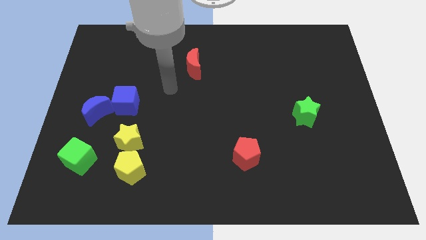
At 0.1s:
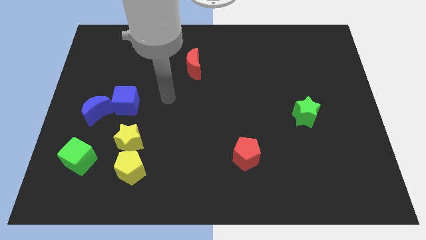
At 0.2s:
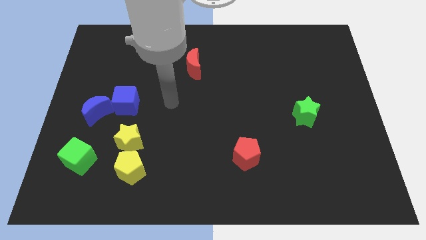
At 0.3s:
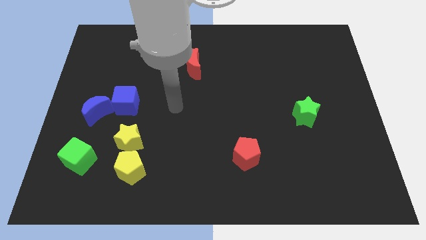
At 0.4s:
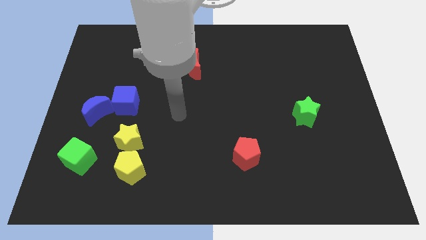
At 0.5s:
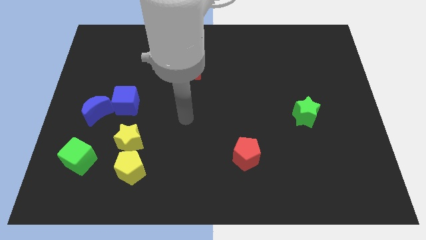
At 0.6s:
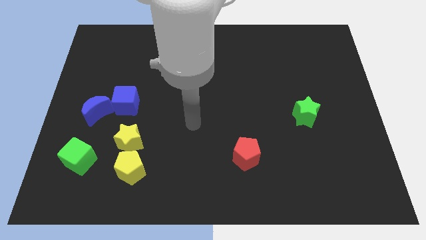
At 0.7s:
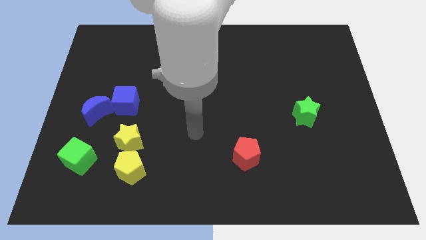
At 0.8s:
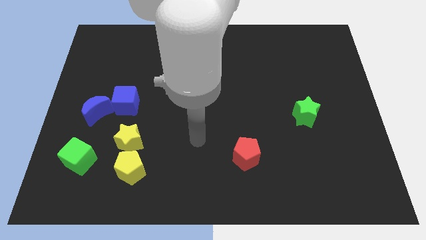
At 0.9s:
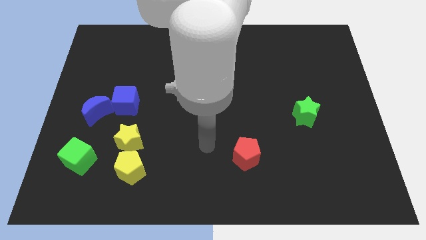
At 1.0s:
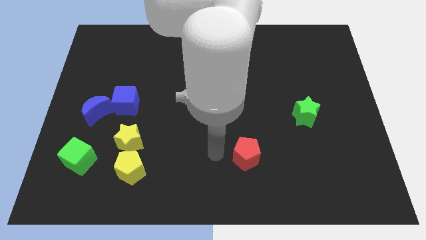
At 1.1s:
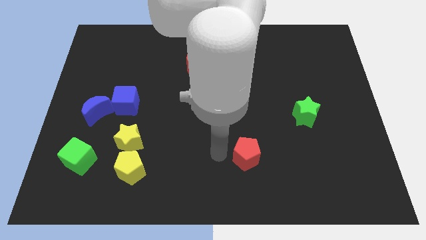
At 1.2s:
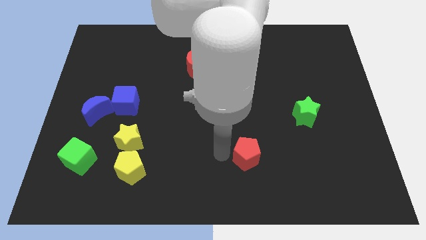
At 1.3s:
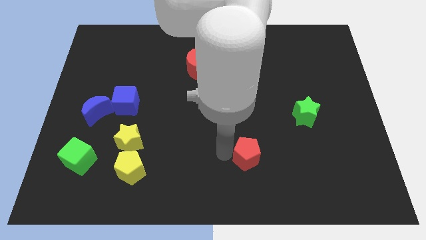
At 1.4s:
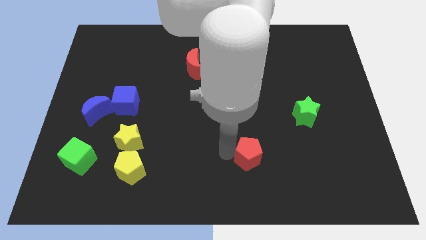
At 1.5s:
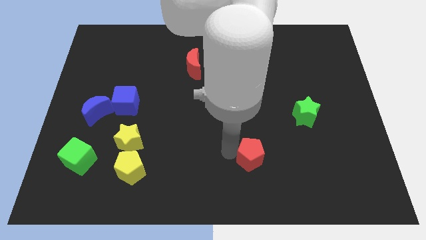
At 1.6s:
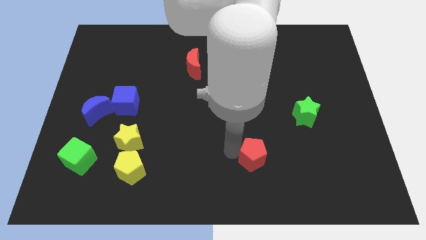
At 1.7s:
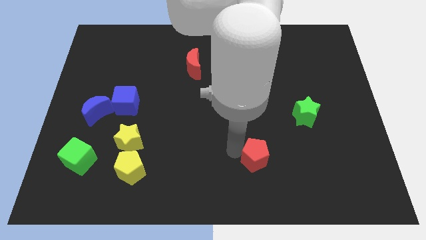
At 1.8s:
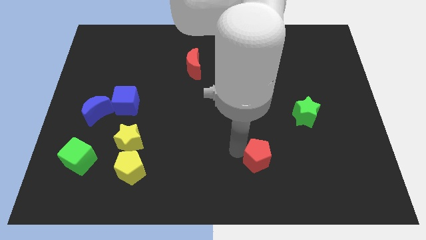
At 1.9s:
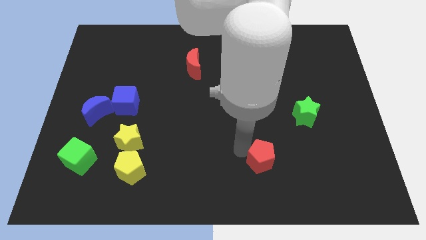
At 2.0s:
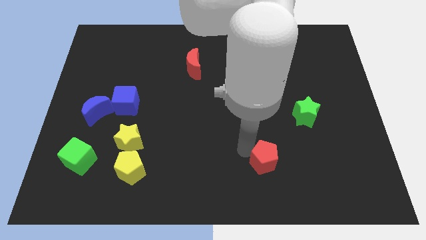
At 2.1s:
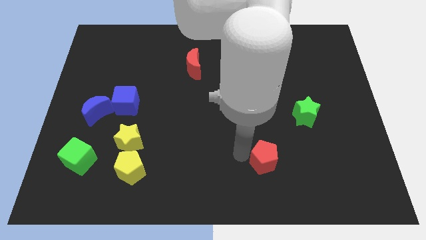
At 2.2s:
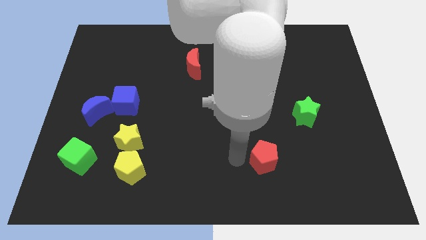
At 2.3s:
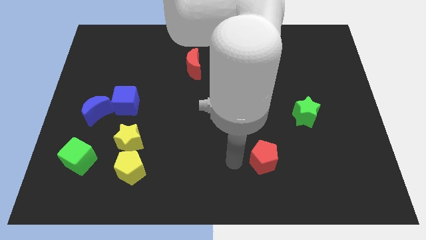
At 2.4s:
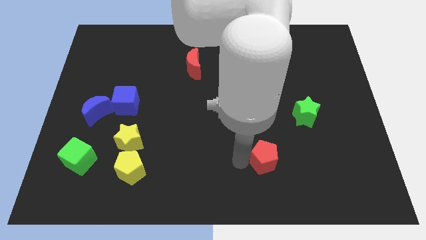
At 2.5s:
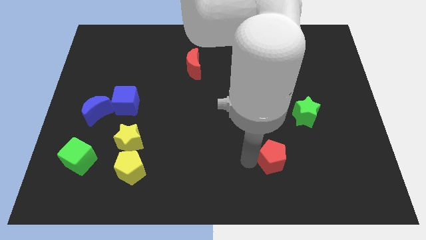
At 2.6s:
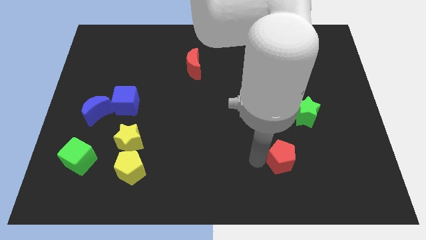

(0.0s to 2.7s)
slide the red pentagon somewhat to the right

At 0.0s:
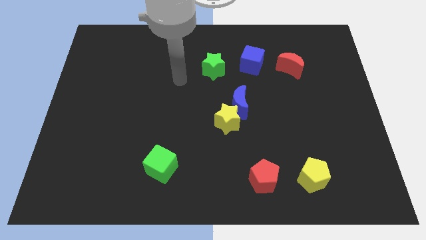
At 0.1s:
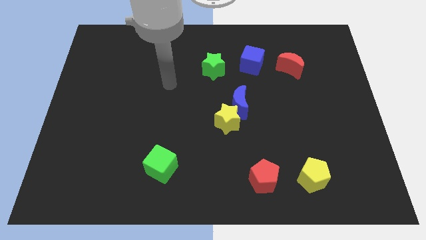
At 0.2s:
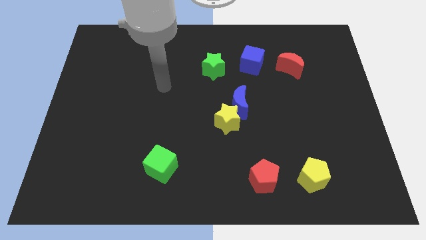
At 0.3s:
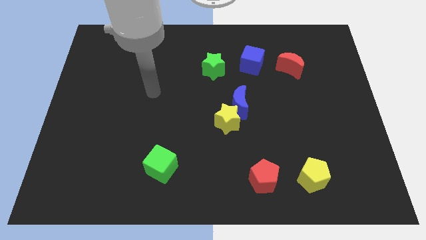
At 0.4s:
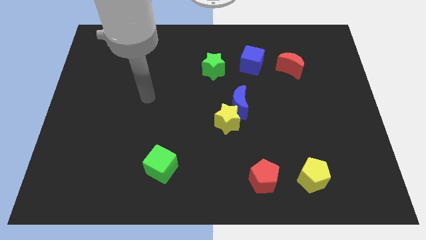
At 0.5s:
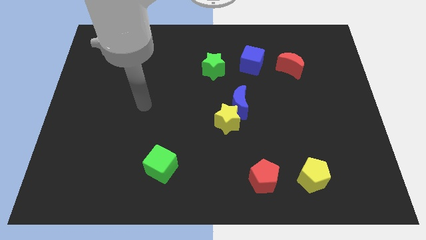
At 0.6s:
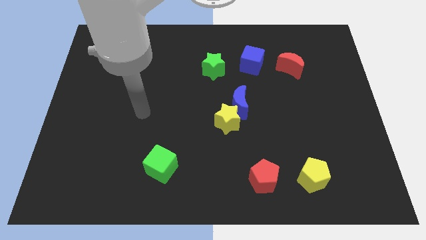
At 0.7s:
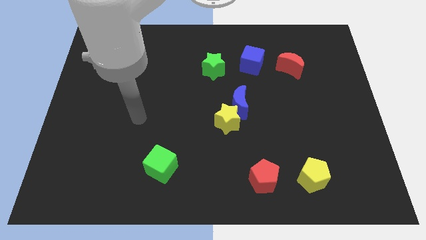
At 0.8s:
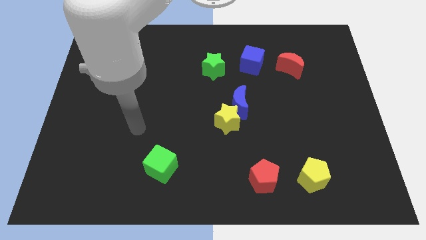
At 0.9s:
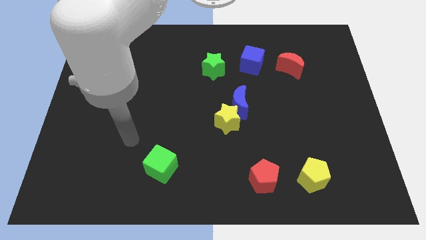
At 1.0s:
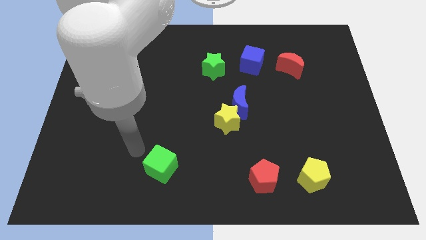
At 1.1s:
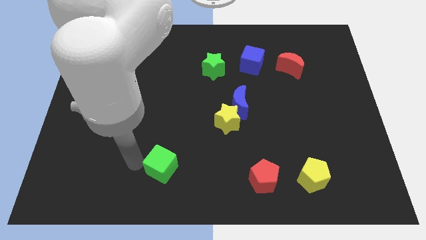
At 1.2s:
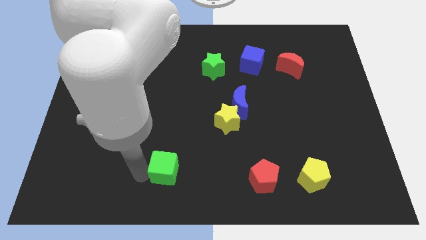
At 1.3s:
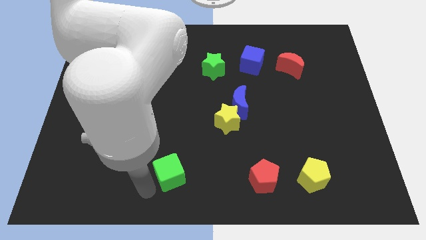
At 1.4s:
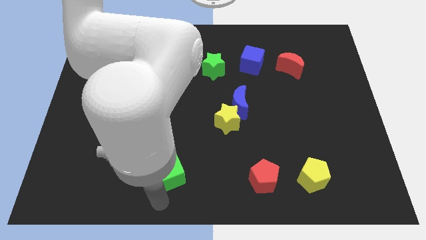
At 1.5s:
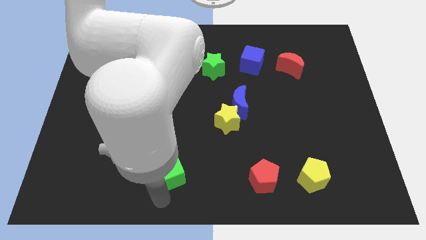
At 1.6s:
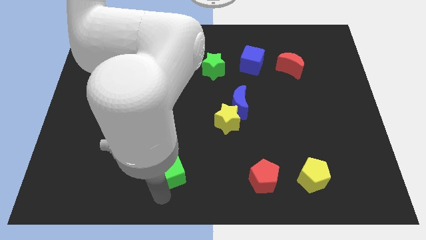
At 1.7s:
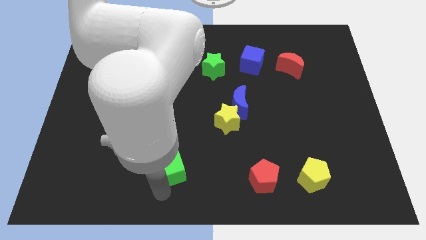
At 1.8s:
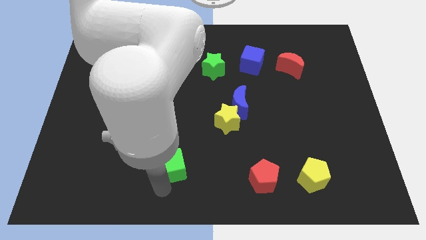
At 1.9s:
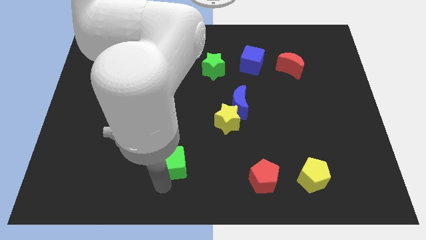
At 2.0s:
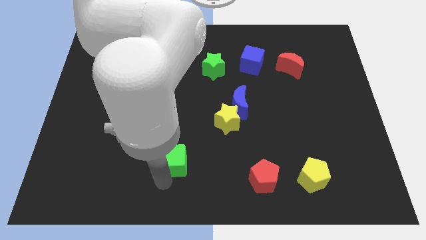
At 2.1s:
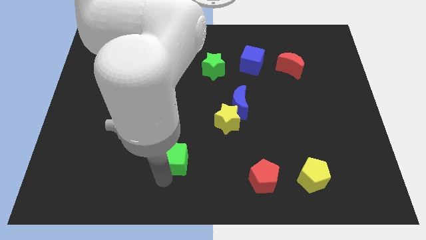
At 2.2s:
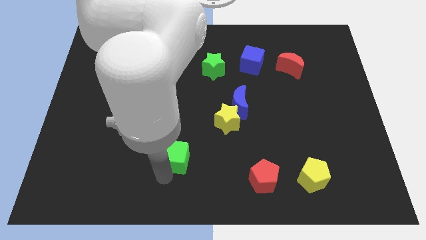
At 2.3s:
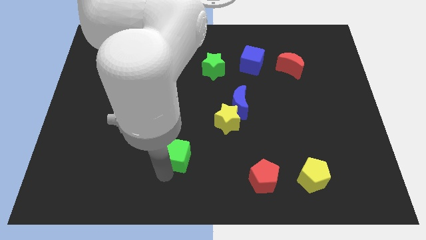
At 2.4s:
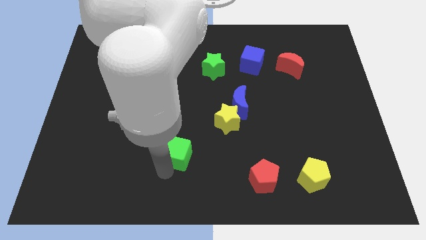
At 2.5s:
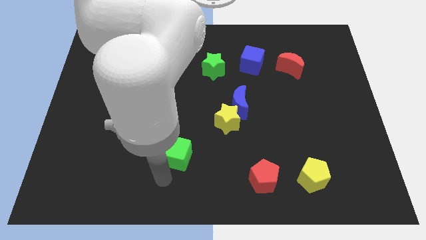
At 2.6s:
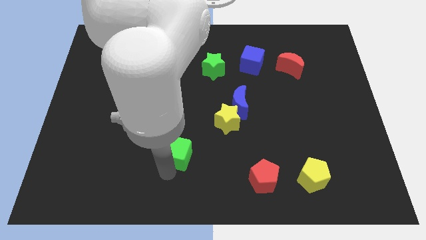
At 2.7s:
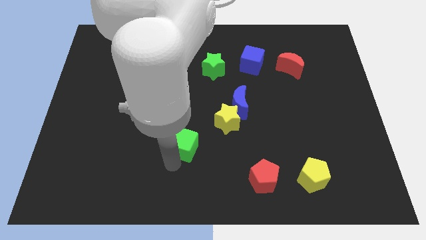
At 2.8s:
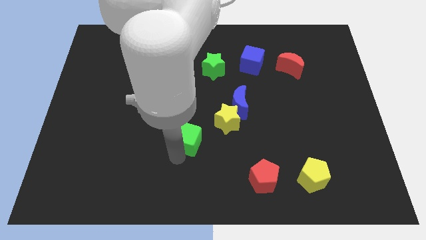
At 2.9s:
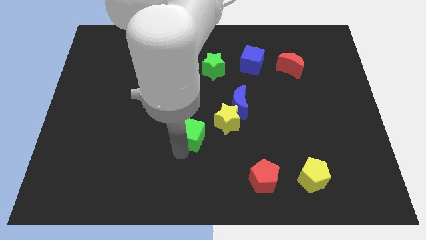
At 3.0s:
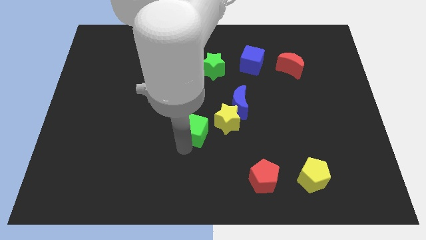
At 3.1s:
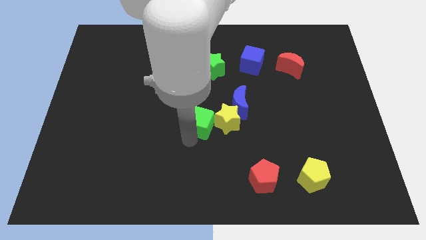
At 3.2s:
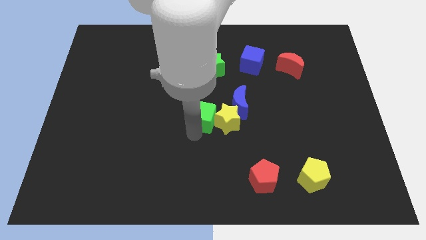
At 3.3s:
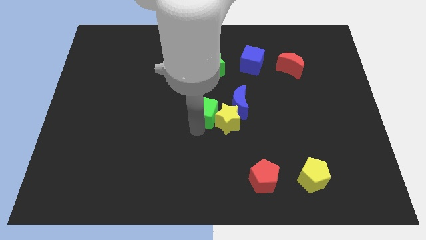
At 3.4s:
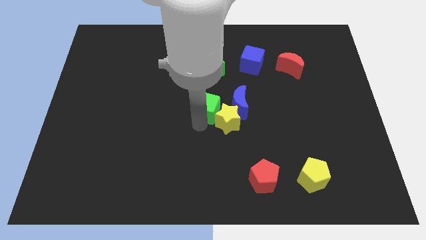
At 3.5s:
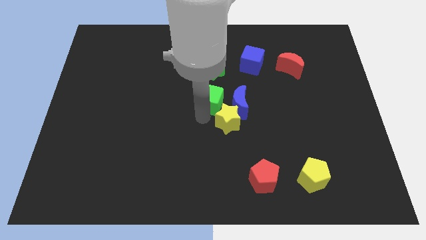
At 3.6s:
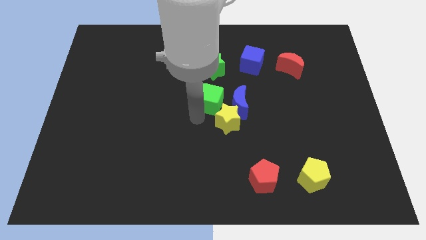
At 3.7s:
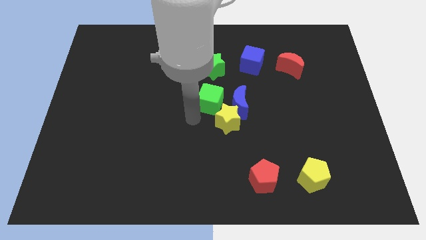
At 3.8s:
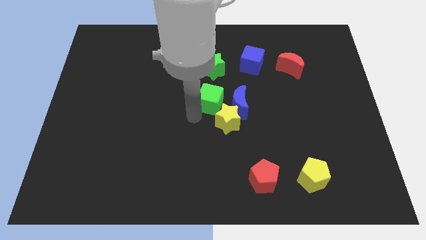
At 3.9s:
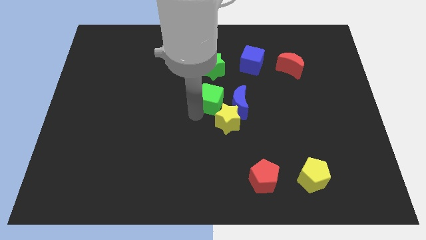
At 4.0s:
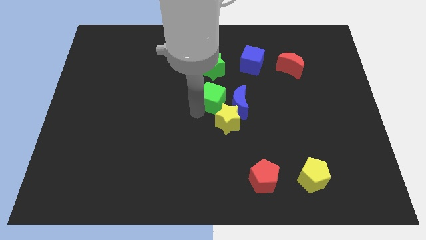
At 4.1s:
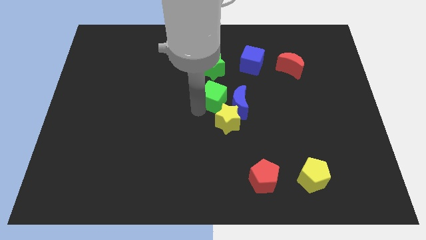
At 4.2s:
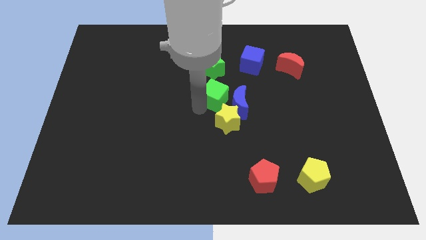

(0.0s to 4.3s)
move the green cube up and right

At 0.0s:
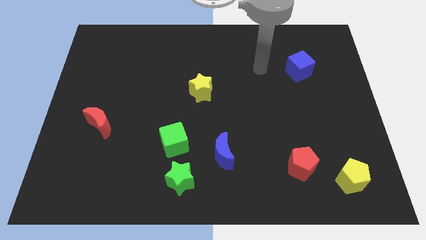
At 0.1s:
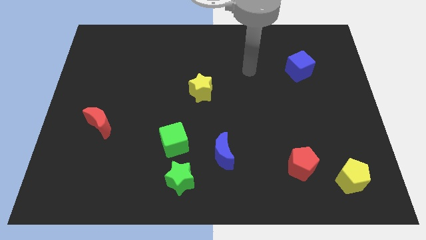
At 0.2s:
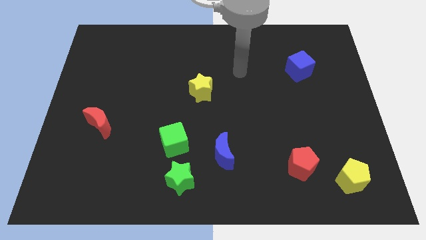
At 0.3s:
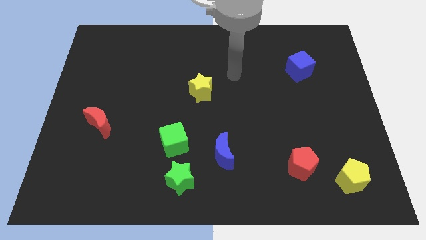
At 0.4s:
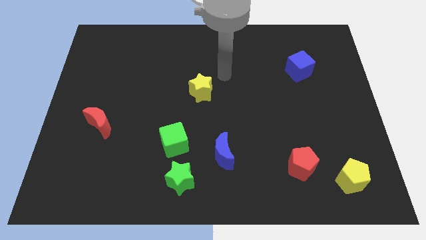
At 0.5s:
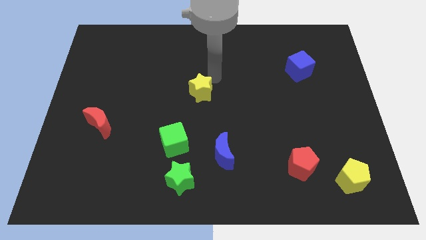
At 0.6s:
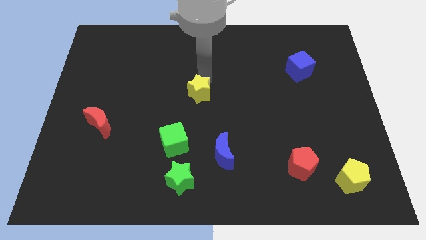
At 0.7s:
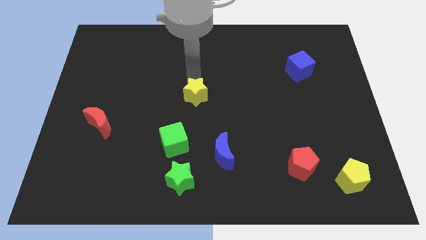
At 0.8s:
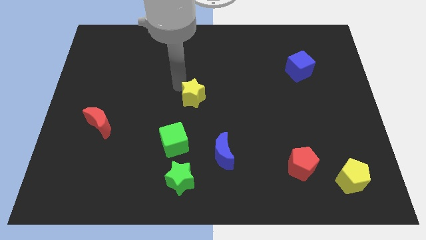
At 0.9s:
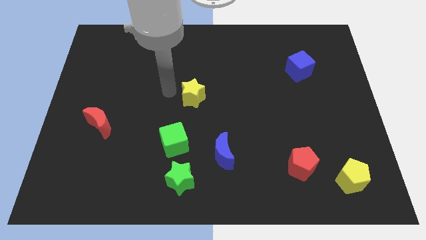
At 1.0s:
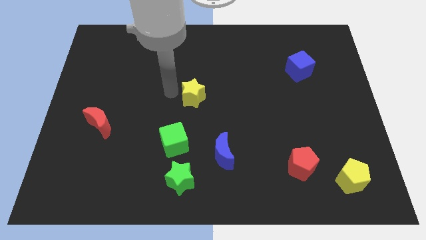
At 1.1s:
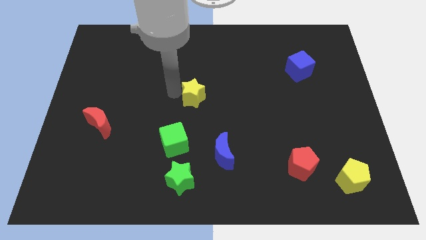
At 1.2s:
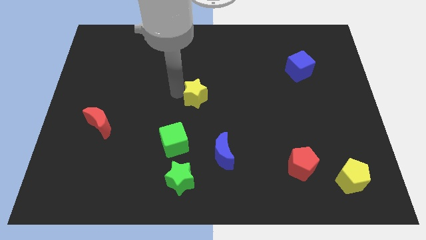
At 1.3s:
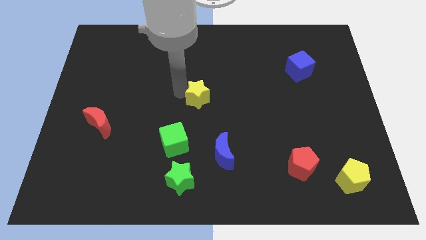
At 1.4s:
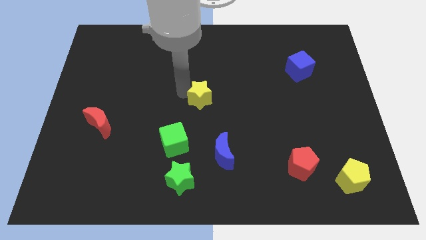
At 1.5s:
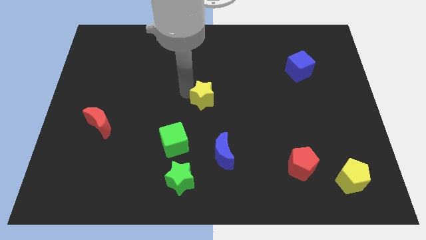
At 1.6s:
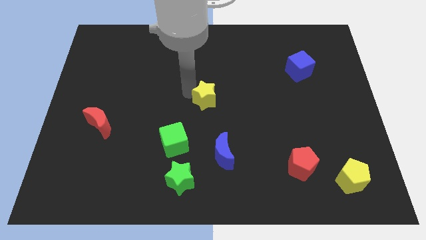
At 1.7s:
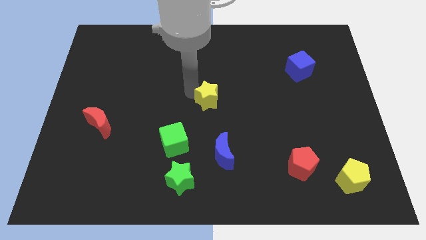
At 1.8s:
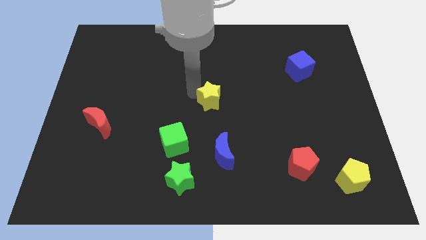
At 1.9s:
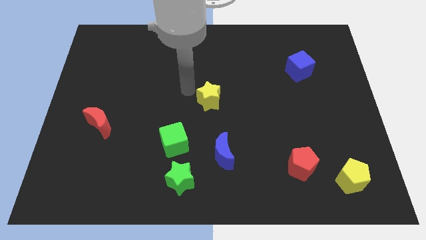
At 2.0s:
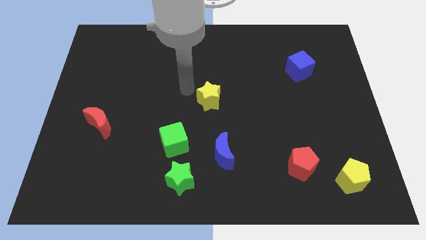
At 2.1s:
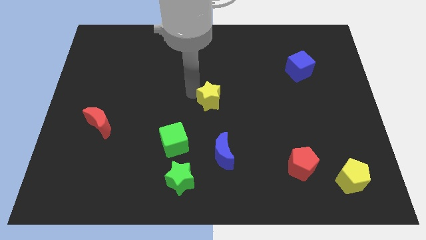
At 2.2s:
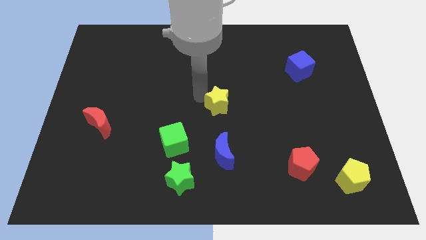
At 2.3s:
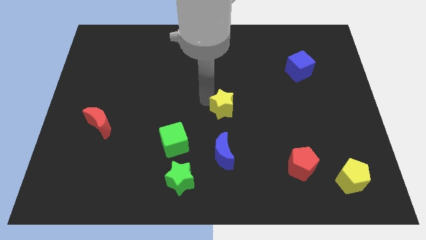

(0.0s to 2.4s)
slide the yellow star a little bit down and then right
